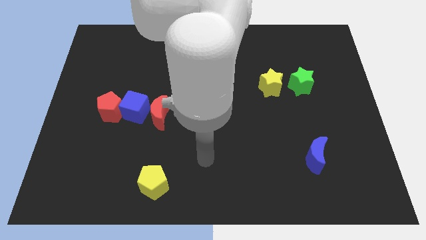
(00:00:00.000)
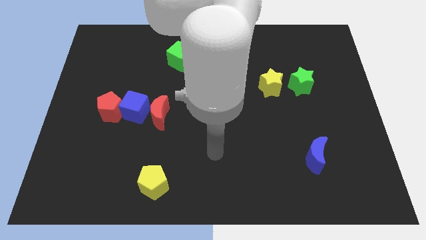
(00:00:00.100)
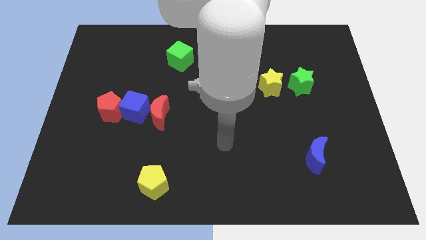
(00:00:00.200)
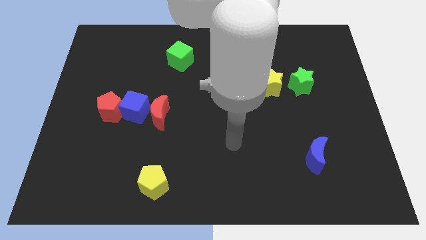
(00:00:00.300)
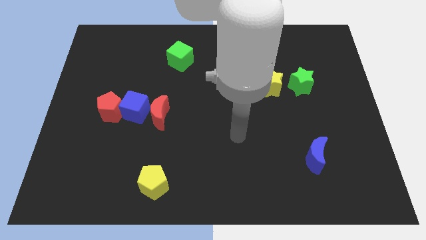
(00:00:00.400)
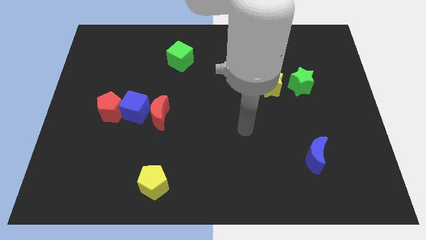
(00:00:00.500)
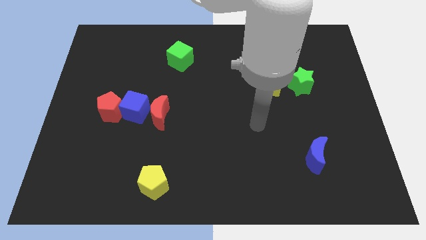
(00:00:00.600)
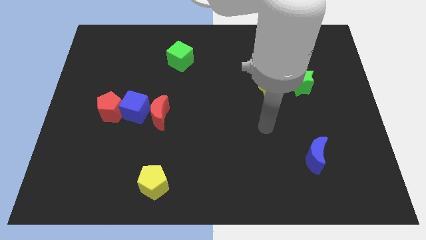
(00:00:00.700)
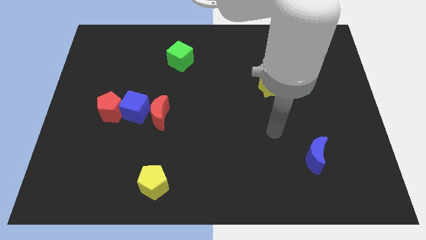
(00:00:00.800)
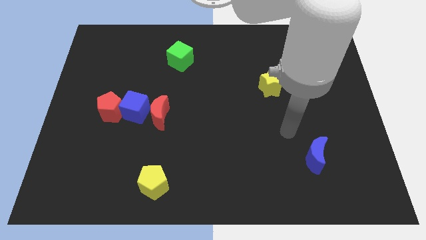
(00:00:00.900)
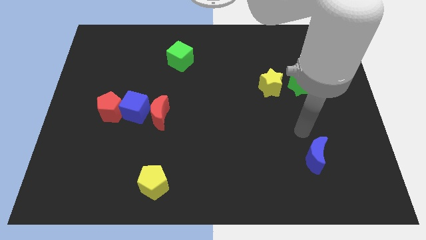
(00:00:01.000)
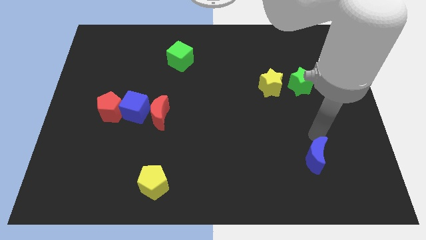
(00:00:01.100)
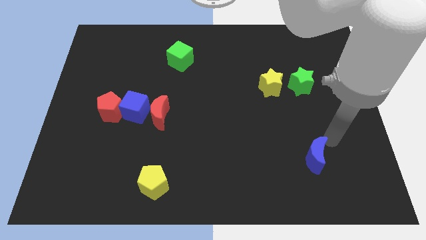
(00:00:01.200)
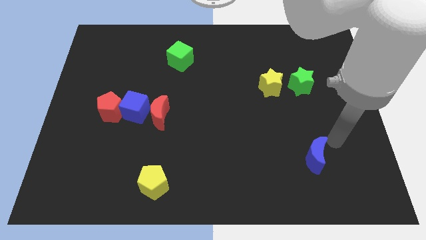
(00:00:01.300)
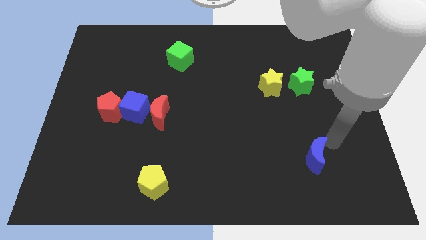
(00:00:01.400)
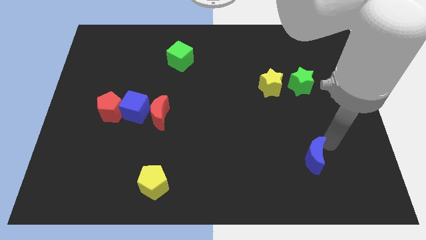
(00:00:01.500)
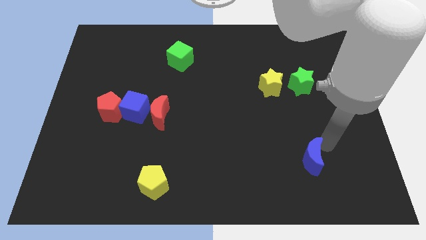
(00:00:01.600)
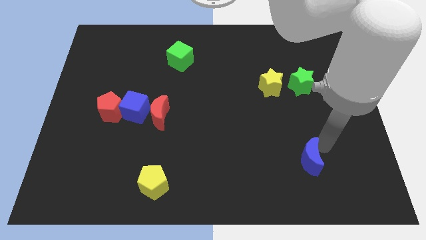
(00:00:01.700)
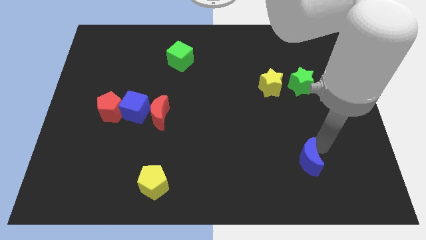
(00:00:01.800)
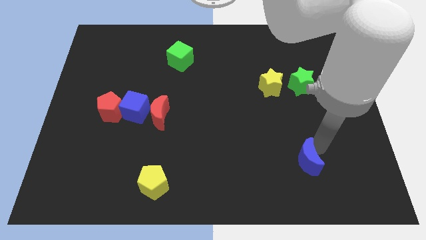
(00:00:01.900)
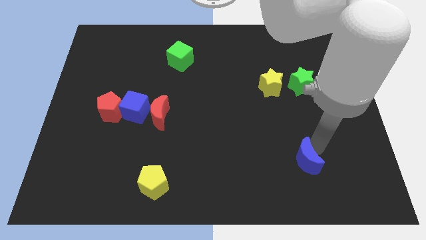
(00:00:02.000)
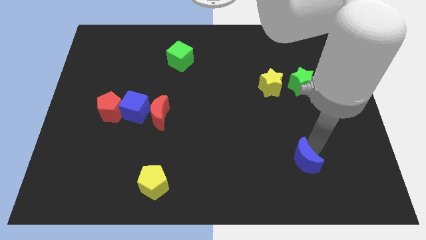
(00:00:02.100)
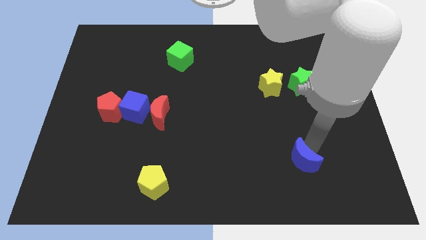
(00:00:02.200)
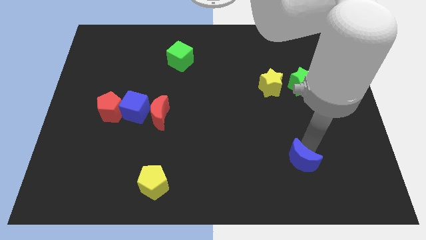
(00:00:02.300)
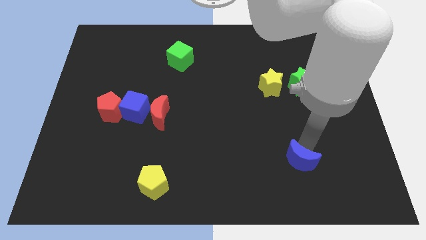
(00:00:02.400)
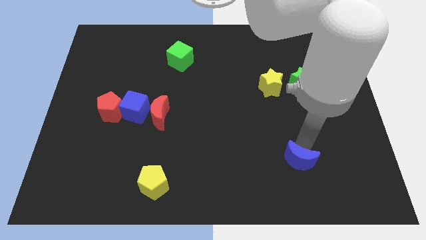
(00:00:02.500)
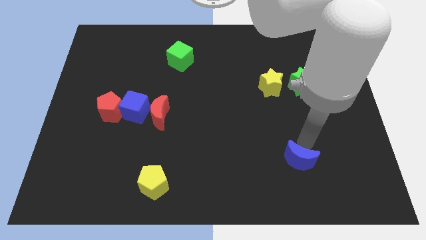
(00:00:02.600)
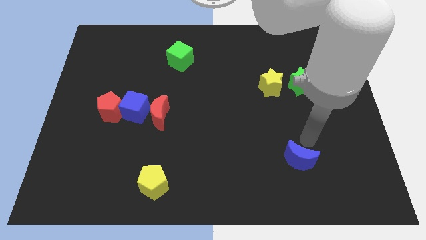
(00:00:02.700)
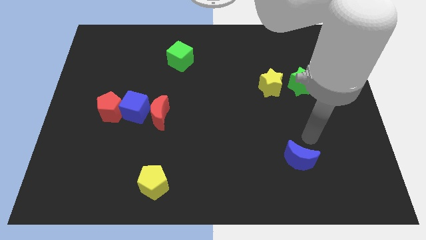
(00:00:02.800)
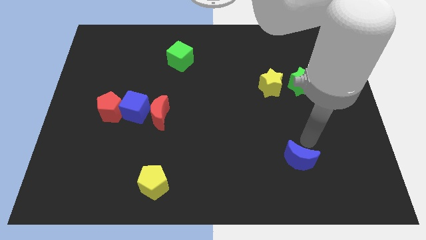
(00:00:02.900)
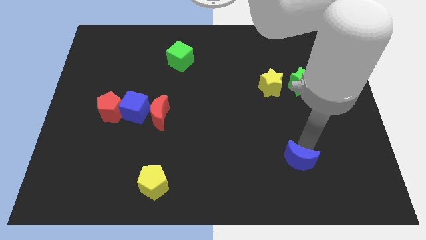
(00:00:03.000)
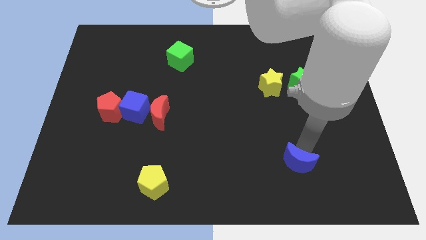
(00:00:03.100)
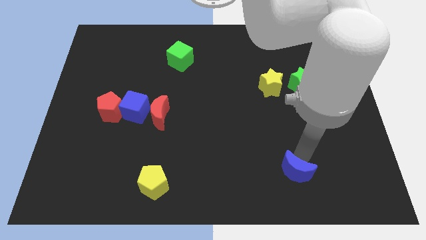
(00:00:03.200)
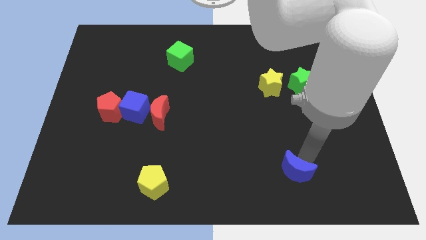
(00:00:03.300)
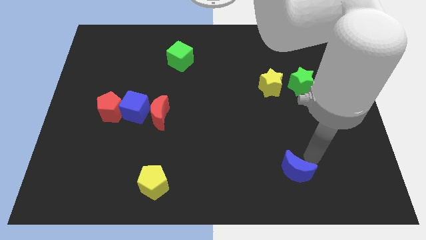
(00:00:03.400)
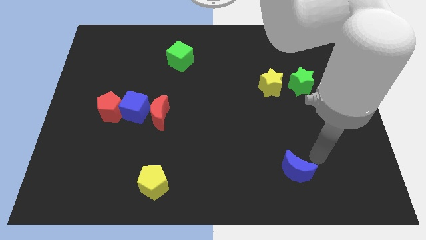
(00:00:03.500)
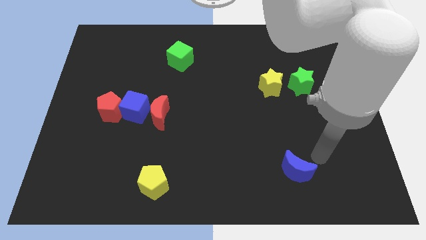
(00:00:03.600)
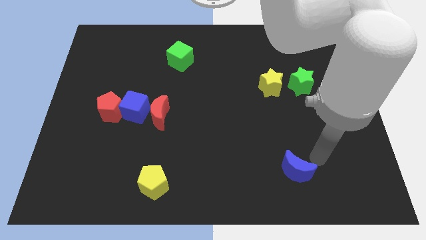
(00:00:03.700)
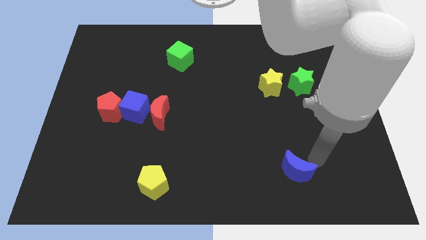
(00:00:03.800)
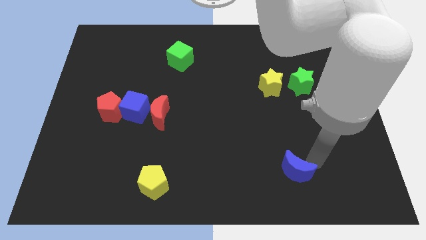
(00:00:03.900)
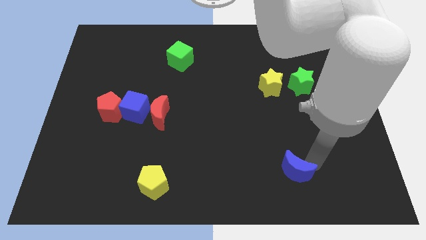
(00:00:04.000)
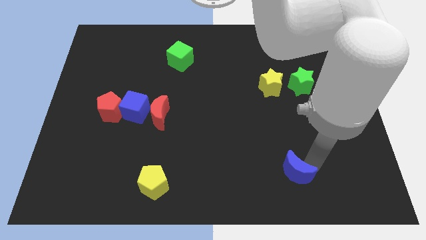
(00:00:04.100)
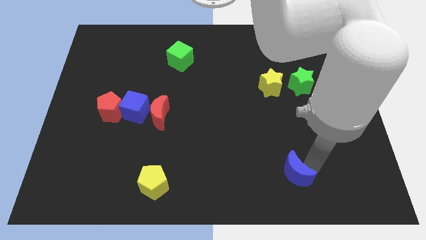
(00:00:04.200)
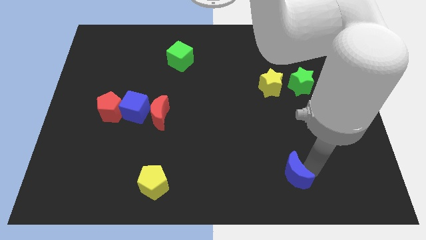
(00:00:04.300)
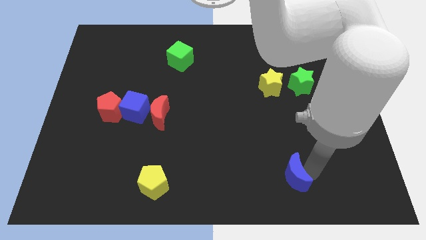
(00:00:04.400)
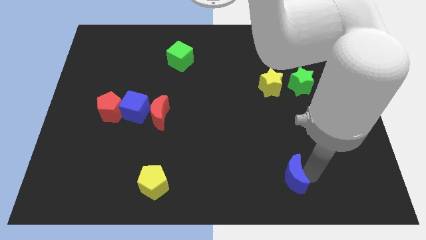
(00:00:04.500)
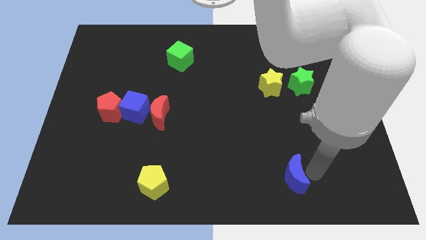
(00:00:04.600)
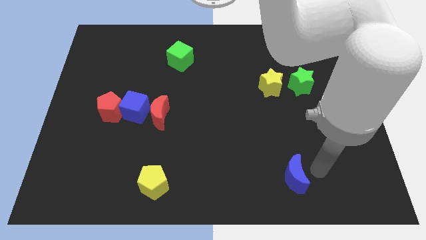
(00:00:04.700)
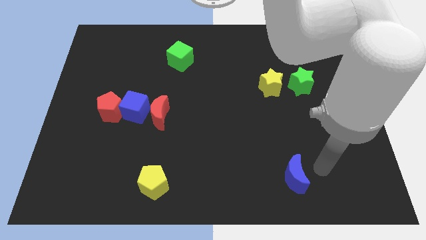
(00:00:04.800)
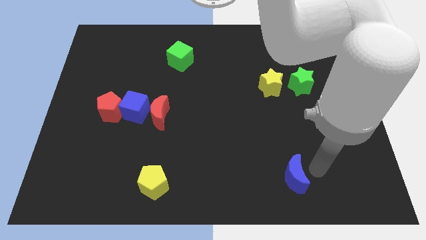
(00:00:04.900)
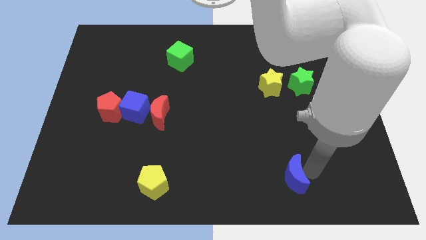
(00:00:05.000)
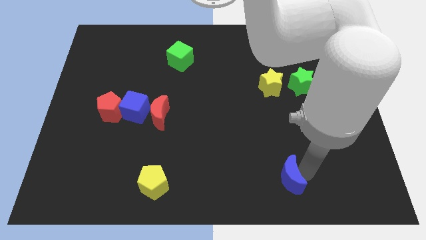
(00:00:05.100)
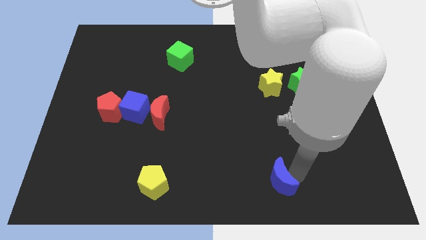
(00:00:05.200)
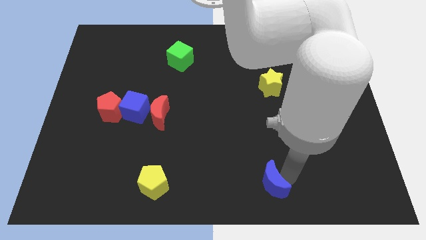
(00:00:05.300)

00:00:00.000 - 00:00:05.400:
put the blue moon to the bottom
